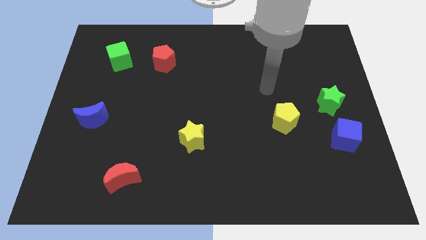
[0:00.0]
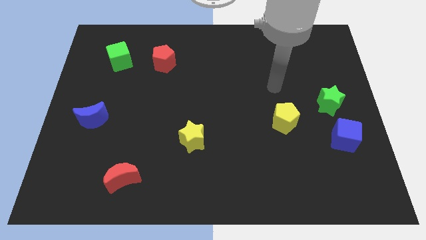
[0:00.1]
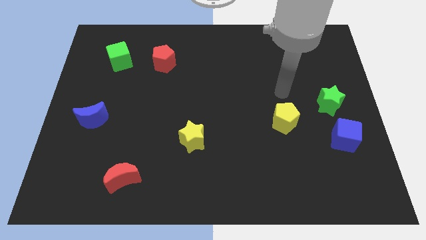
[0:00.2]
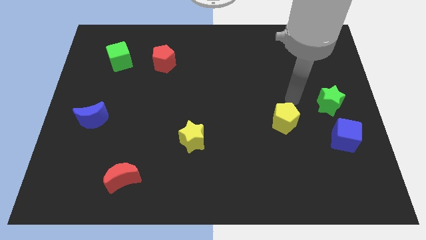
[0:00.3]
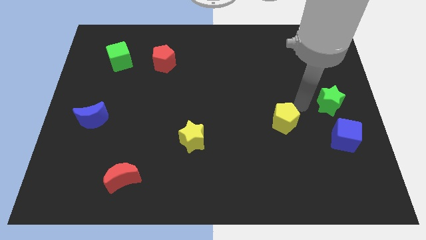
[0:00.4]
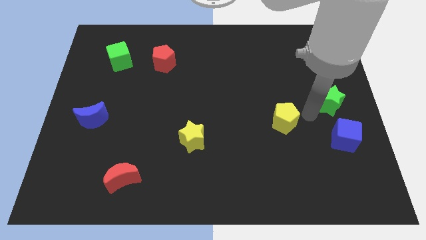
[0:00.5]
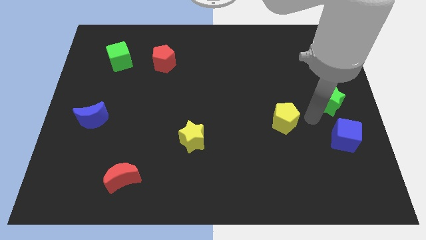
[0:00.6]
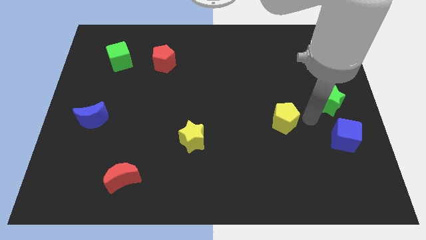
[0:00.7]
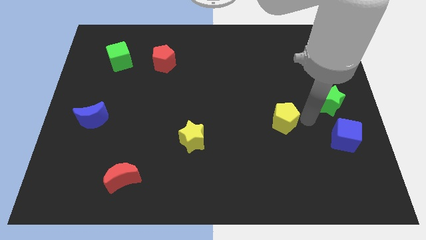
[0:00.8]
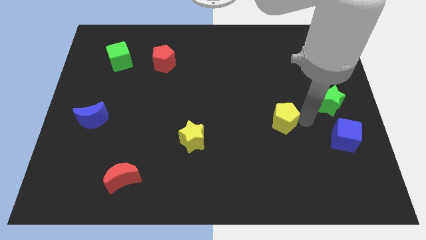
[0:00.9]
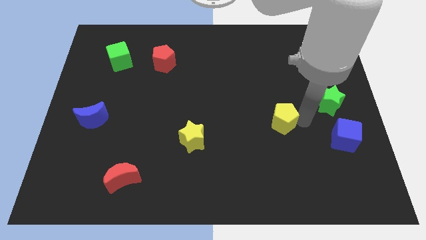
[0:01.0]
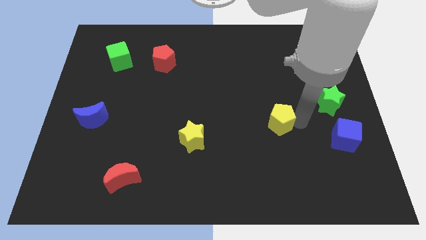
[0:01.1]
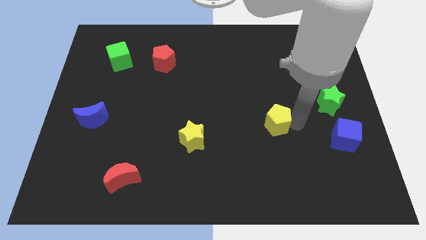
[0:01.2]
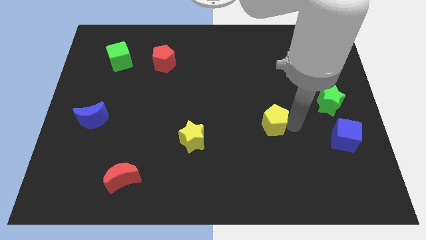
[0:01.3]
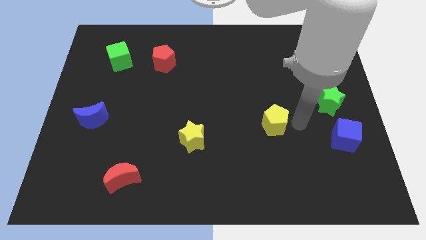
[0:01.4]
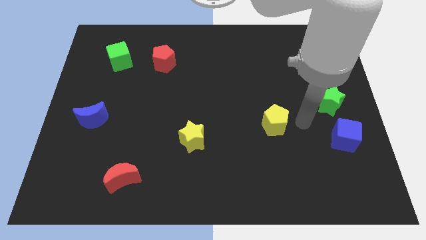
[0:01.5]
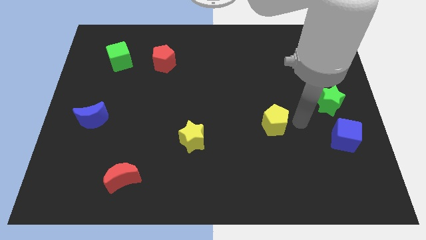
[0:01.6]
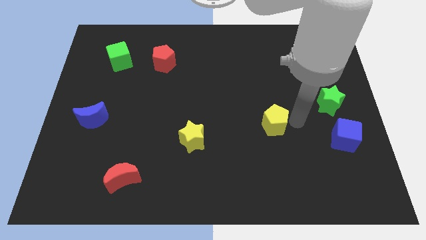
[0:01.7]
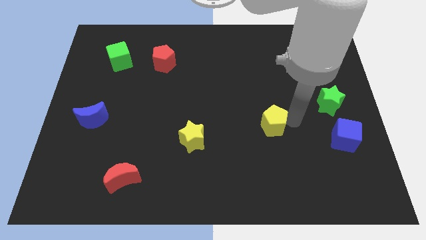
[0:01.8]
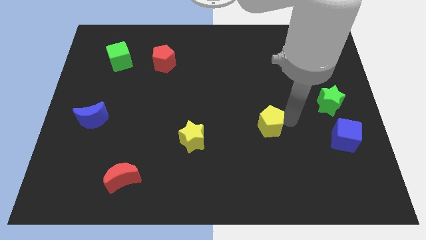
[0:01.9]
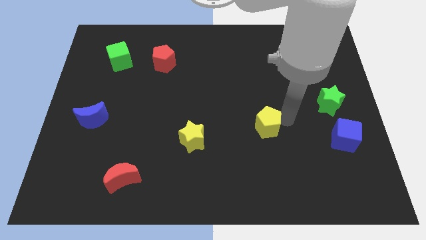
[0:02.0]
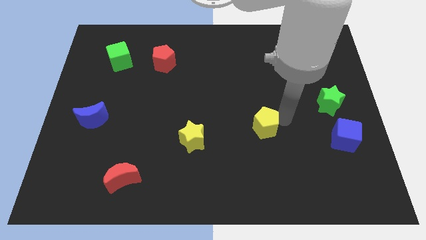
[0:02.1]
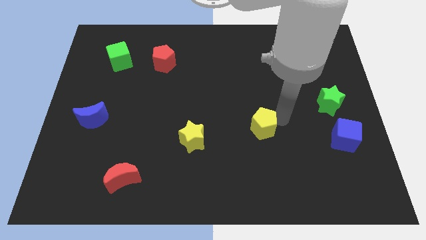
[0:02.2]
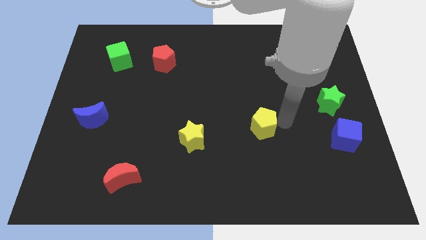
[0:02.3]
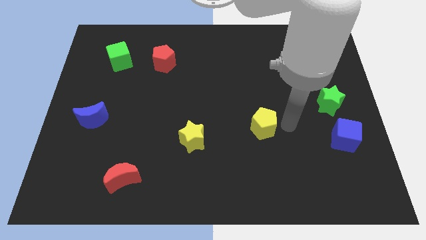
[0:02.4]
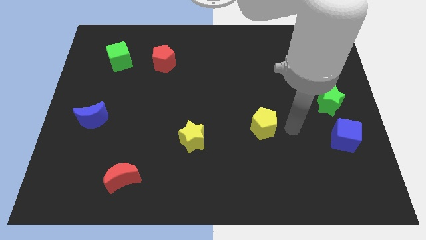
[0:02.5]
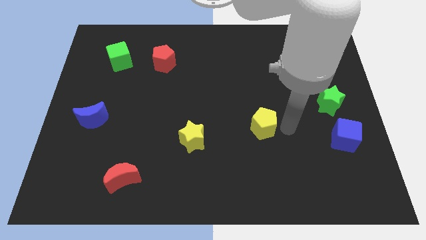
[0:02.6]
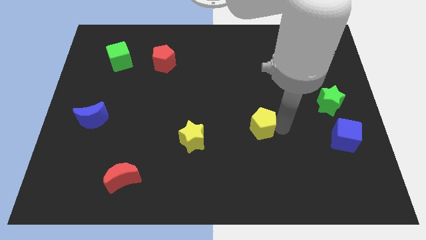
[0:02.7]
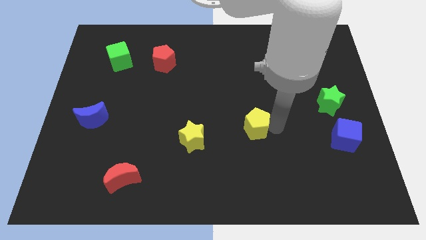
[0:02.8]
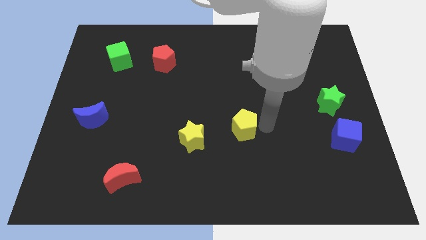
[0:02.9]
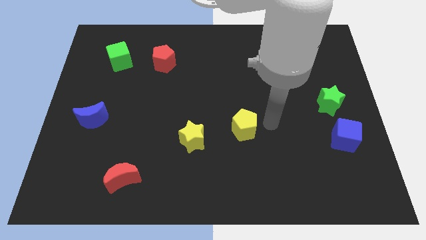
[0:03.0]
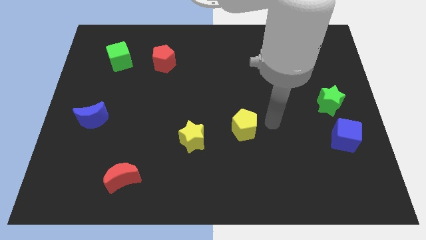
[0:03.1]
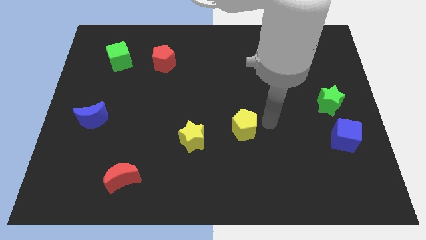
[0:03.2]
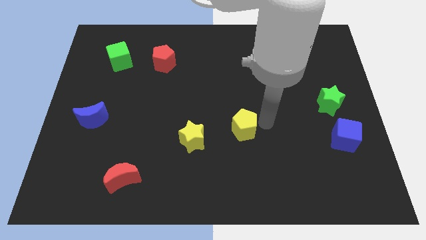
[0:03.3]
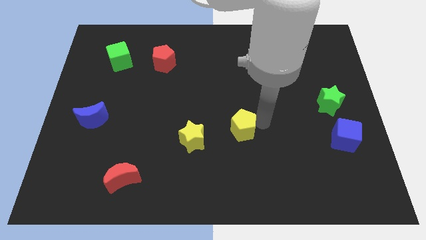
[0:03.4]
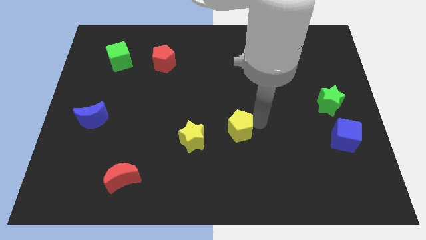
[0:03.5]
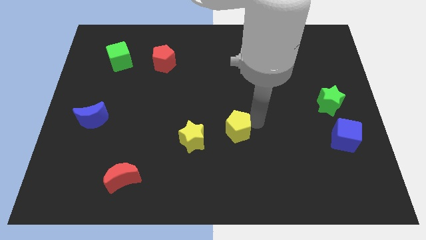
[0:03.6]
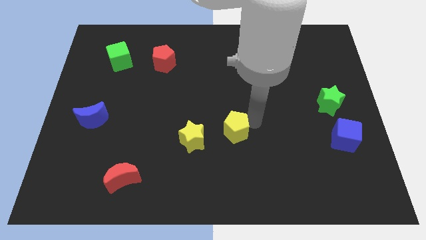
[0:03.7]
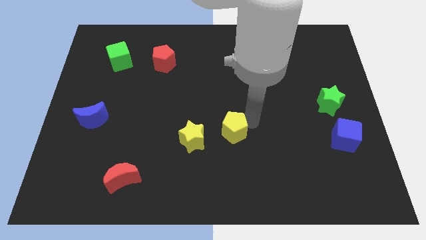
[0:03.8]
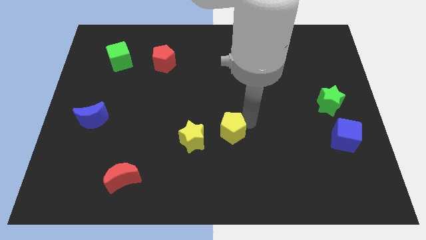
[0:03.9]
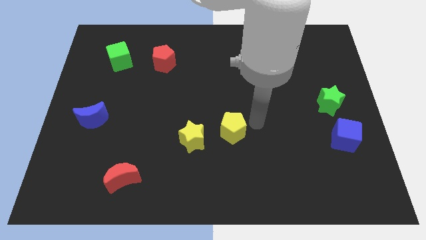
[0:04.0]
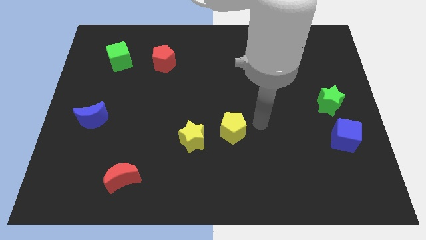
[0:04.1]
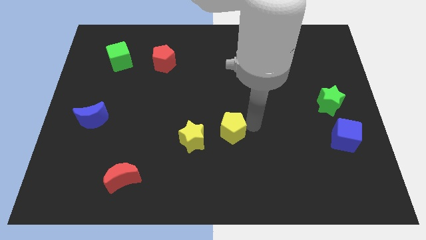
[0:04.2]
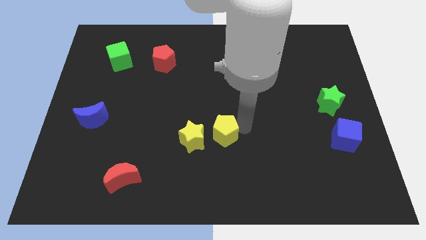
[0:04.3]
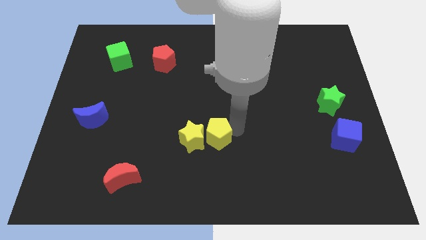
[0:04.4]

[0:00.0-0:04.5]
slide the yellow pentagon close to the yellow star

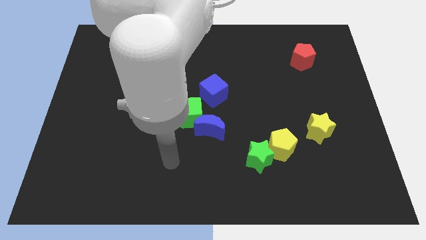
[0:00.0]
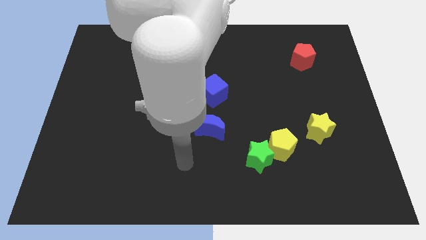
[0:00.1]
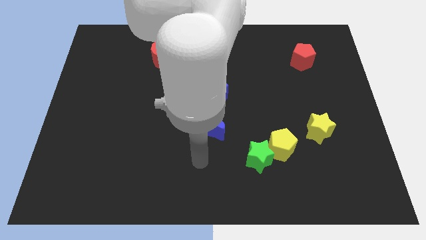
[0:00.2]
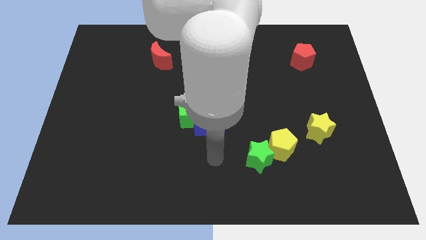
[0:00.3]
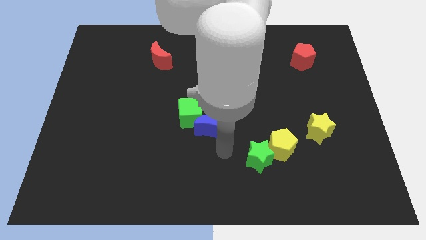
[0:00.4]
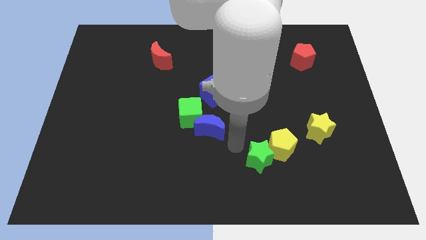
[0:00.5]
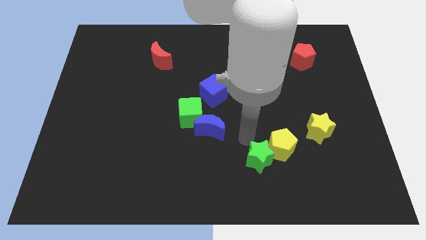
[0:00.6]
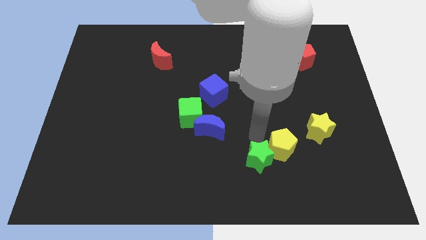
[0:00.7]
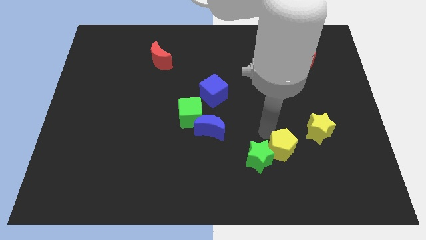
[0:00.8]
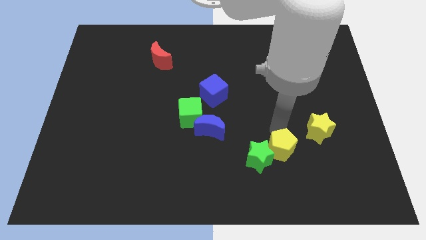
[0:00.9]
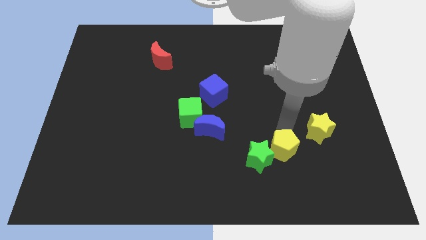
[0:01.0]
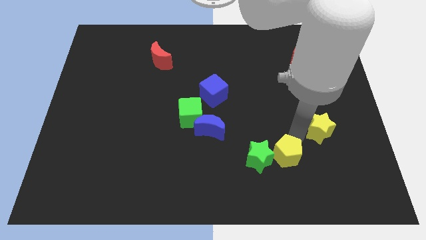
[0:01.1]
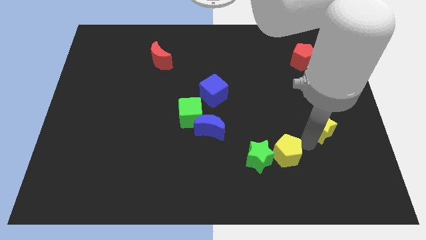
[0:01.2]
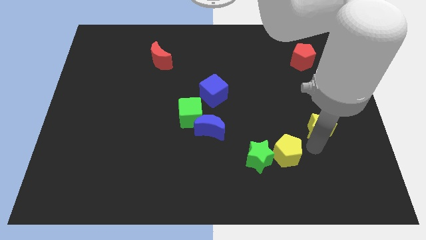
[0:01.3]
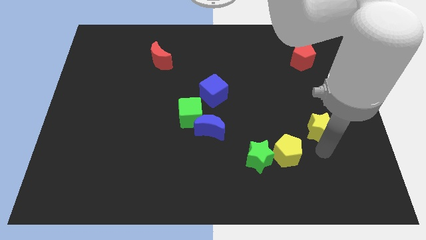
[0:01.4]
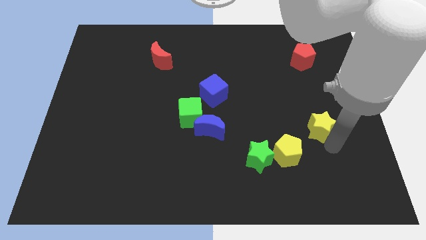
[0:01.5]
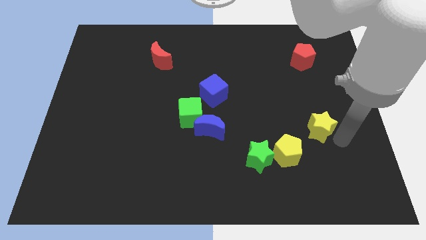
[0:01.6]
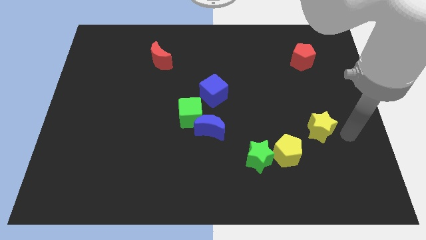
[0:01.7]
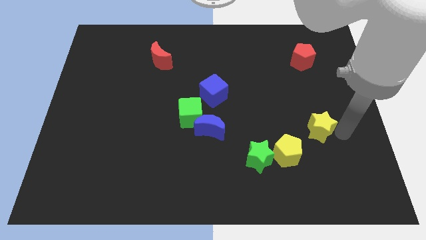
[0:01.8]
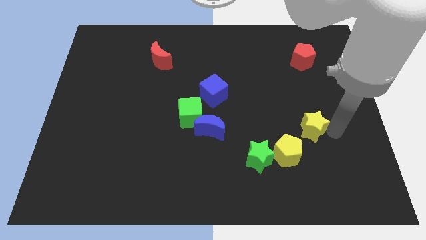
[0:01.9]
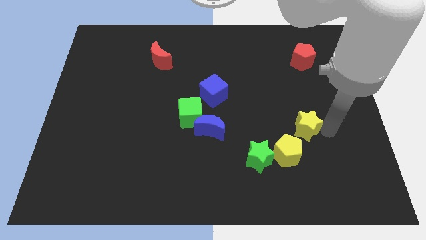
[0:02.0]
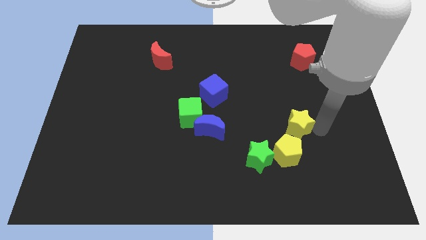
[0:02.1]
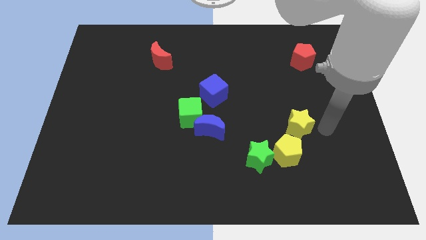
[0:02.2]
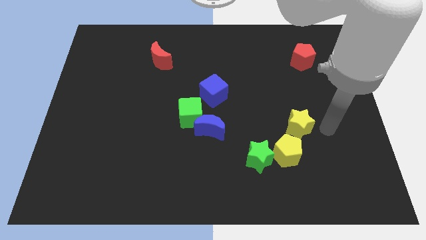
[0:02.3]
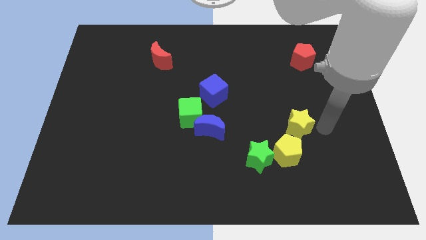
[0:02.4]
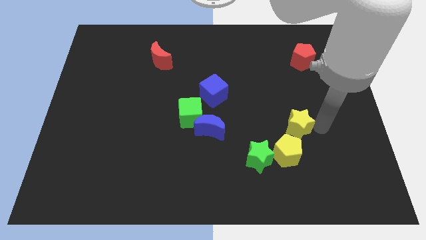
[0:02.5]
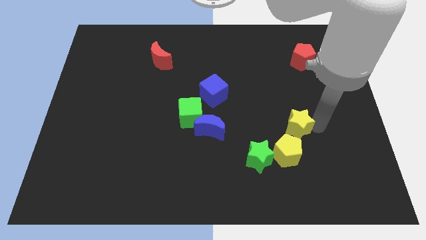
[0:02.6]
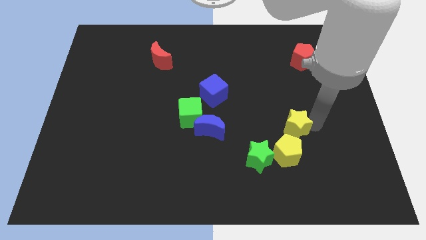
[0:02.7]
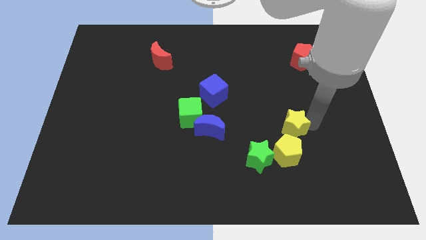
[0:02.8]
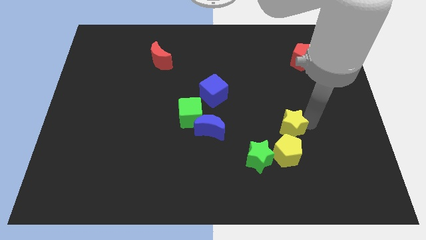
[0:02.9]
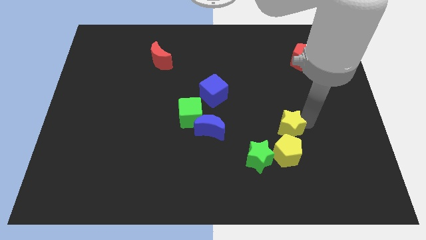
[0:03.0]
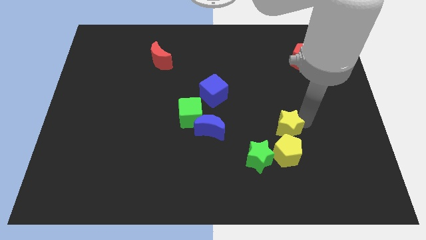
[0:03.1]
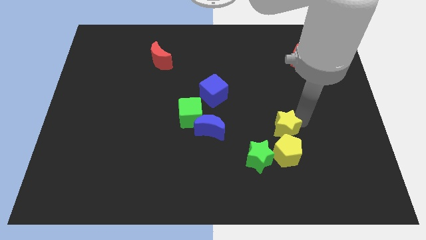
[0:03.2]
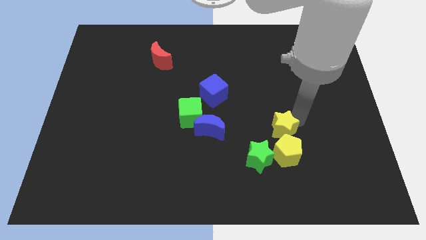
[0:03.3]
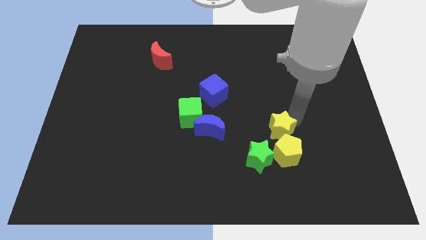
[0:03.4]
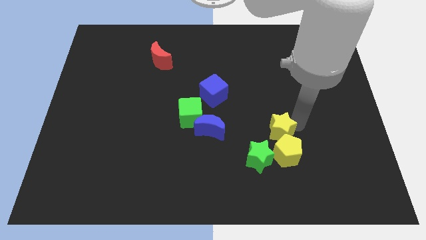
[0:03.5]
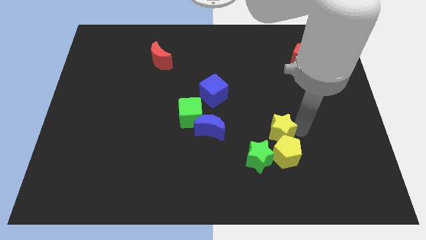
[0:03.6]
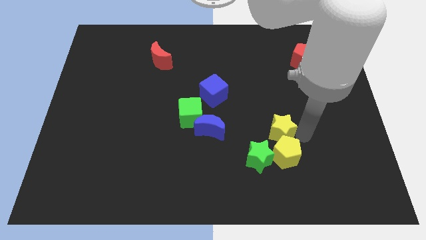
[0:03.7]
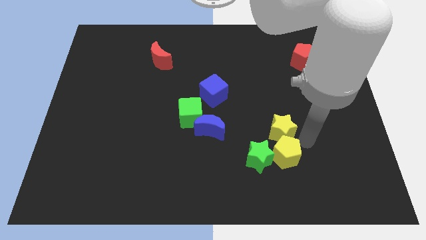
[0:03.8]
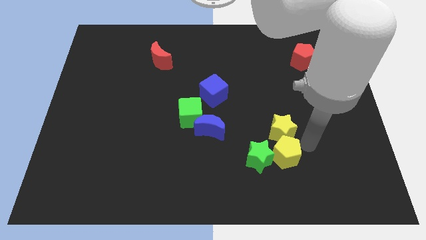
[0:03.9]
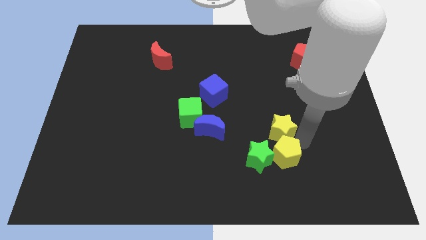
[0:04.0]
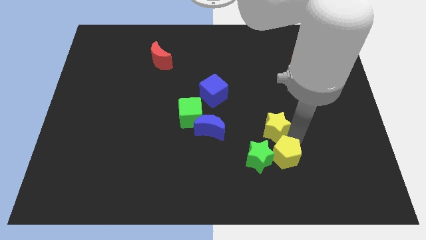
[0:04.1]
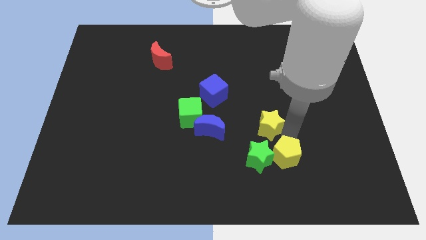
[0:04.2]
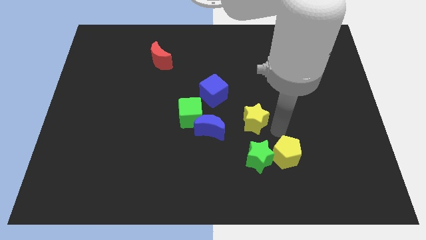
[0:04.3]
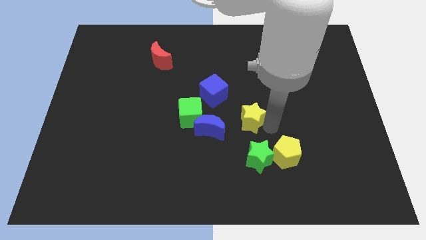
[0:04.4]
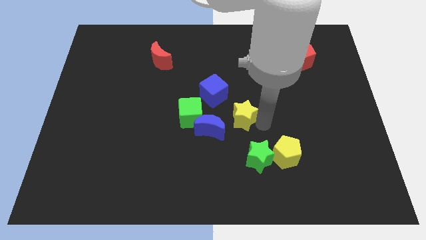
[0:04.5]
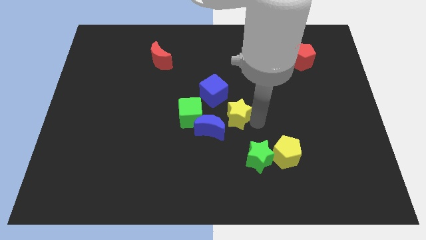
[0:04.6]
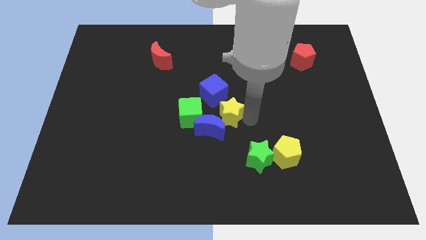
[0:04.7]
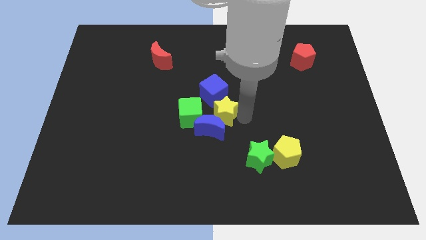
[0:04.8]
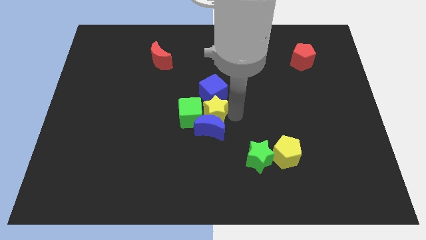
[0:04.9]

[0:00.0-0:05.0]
move the yellow star next to the green cube
